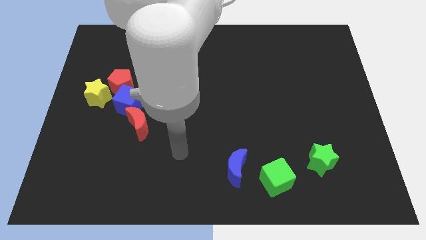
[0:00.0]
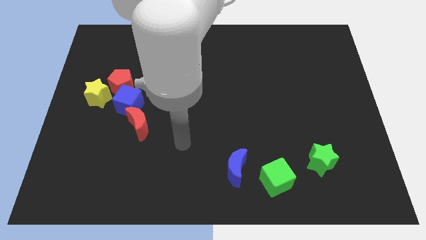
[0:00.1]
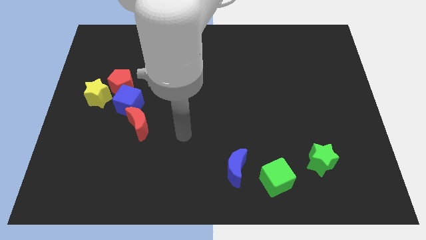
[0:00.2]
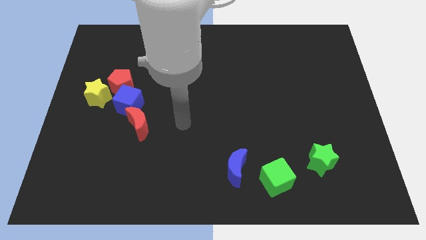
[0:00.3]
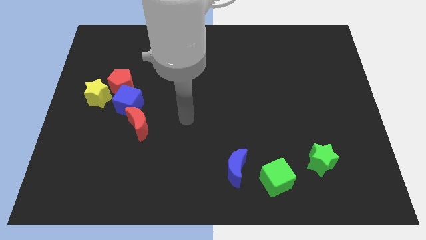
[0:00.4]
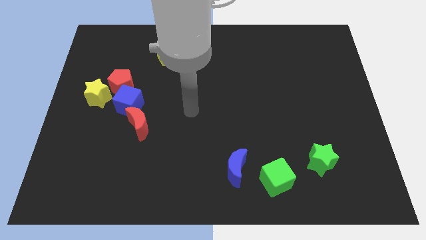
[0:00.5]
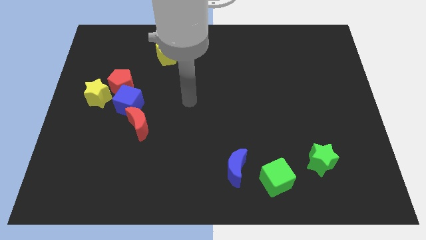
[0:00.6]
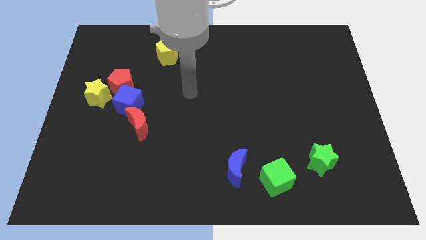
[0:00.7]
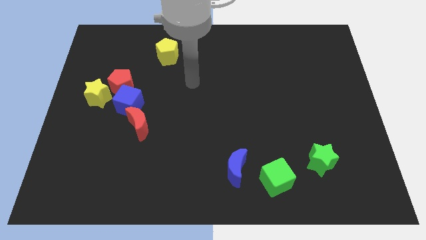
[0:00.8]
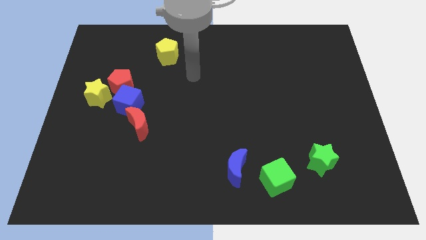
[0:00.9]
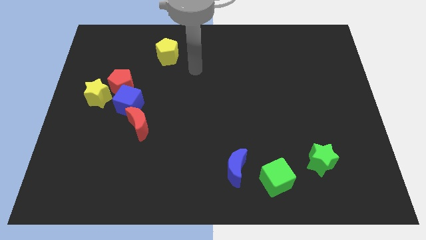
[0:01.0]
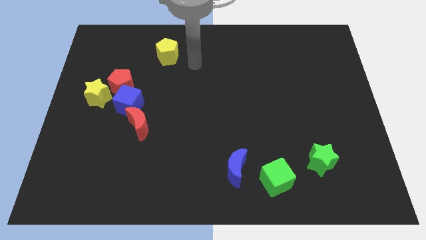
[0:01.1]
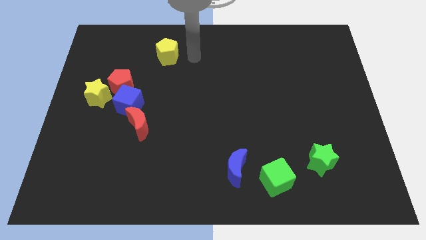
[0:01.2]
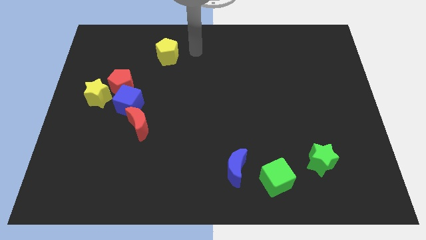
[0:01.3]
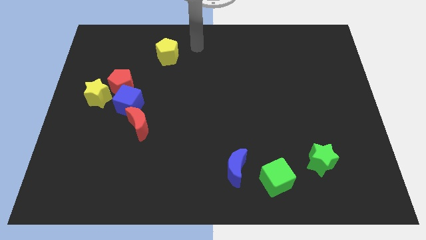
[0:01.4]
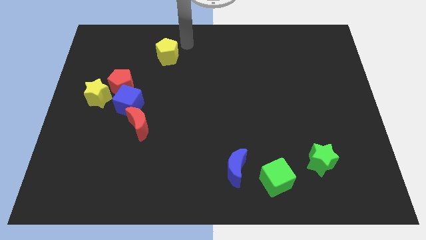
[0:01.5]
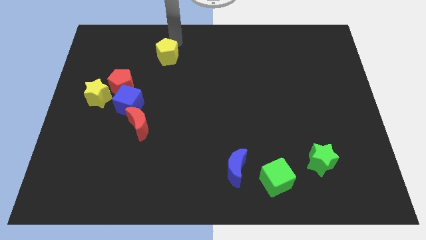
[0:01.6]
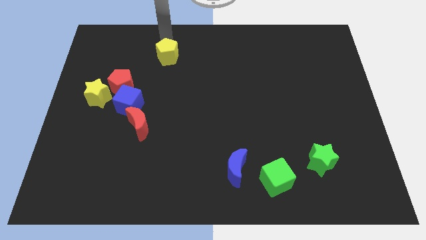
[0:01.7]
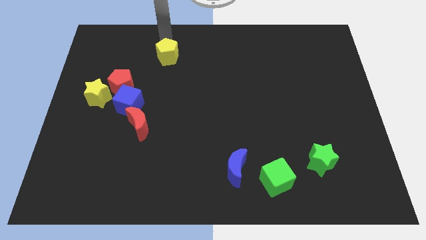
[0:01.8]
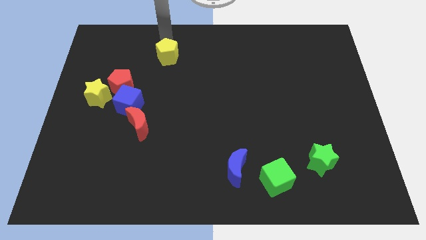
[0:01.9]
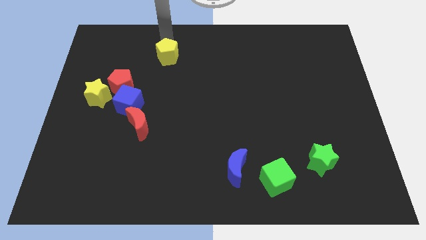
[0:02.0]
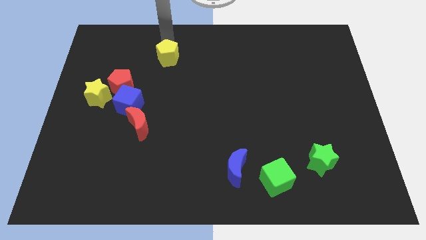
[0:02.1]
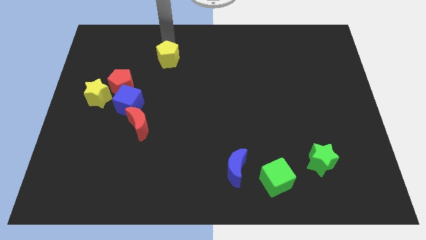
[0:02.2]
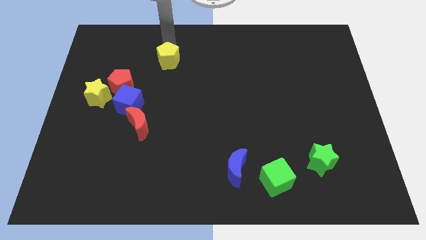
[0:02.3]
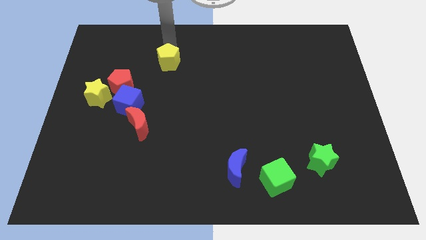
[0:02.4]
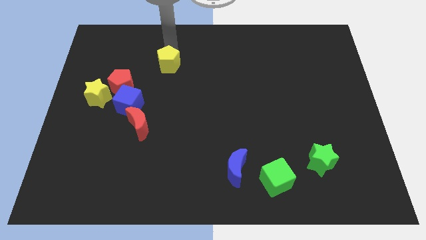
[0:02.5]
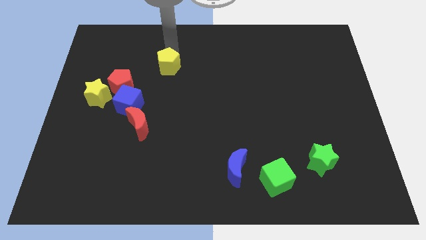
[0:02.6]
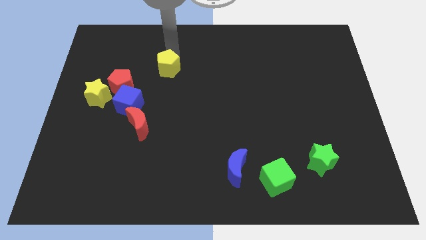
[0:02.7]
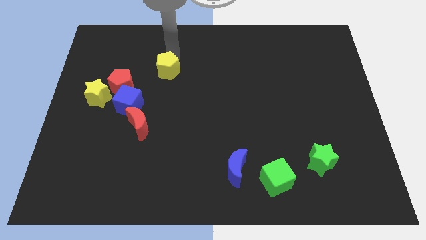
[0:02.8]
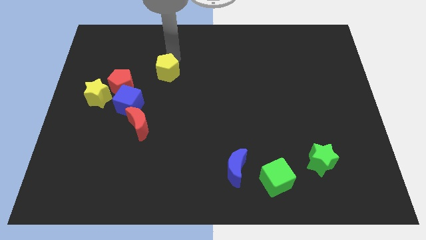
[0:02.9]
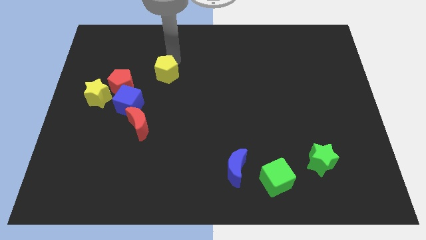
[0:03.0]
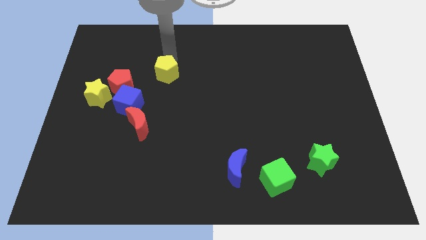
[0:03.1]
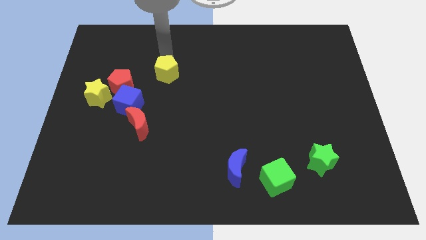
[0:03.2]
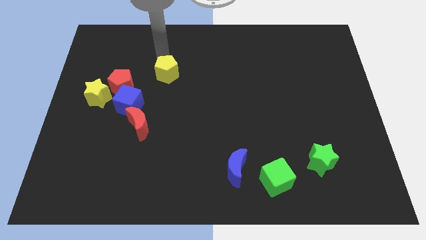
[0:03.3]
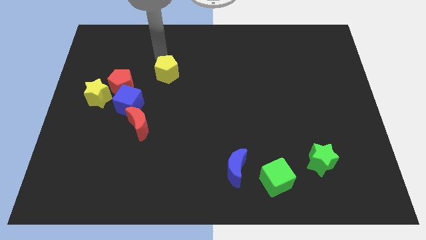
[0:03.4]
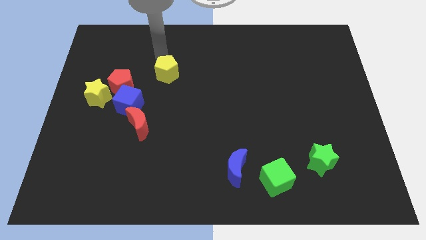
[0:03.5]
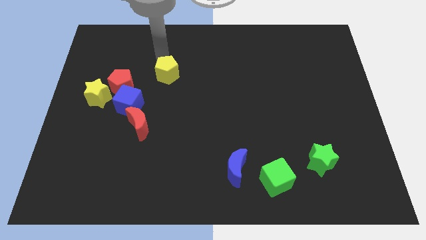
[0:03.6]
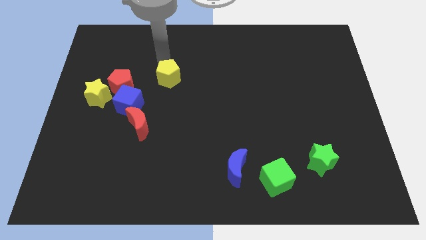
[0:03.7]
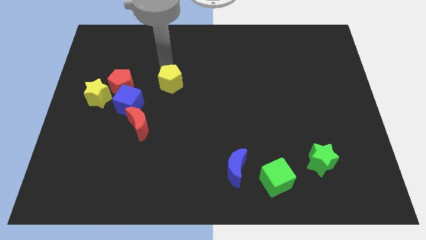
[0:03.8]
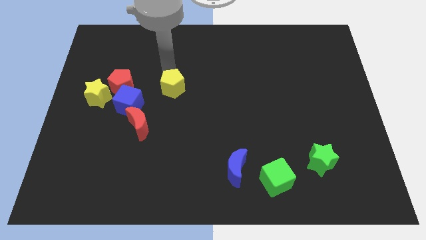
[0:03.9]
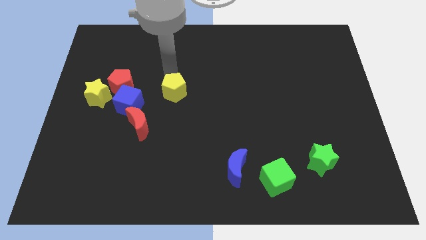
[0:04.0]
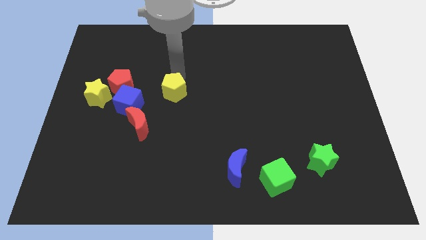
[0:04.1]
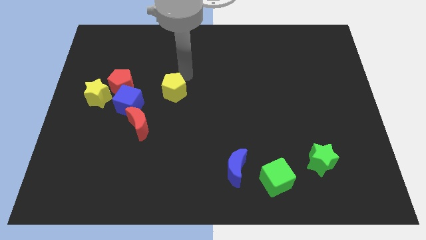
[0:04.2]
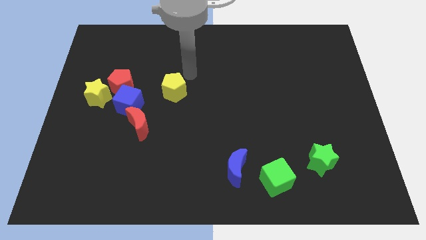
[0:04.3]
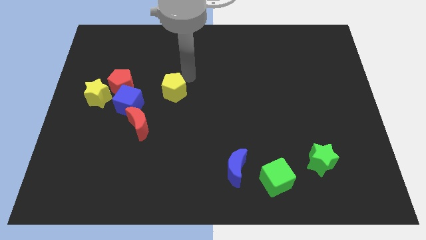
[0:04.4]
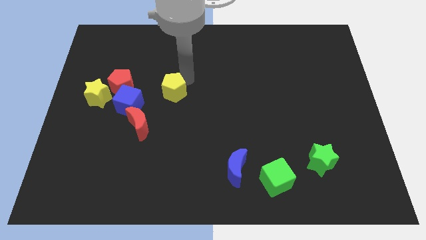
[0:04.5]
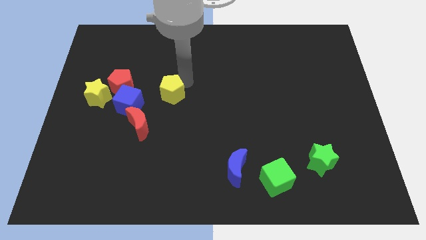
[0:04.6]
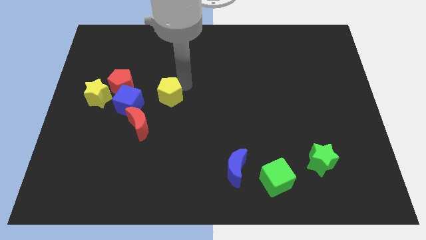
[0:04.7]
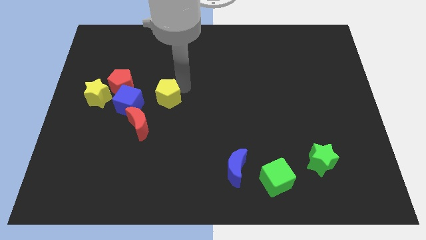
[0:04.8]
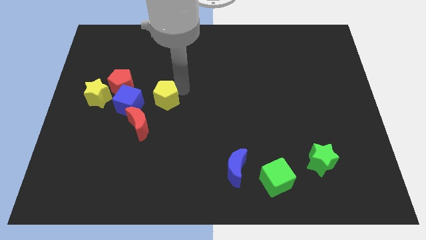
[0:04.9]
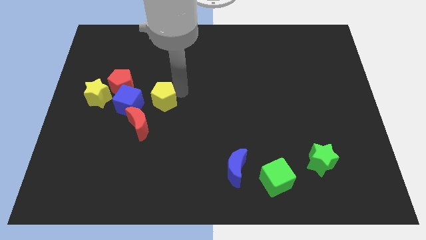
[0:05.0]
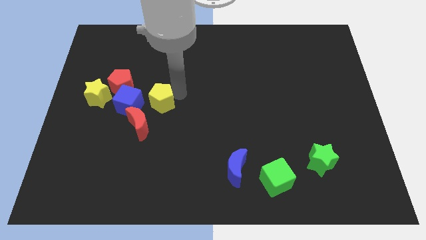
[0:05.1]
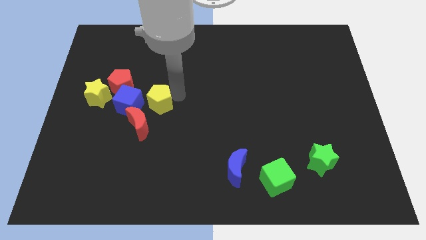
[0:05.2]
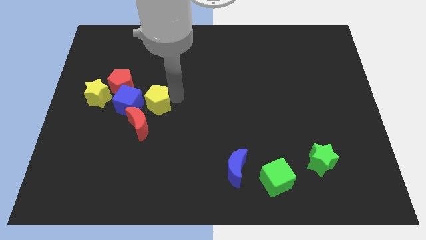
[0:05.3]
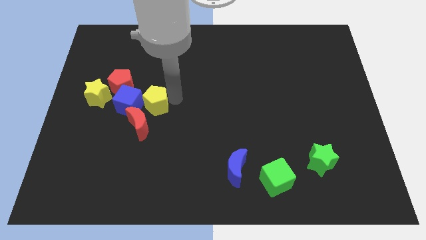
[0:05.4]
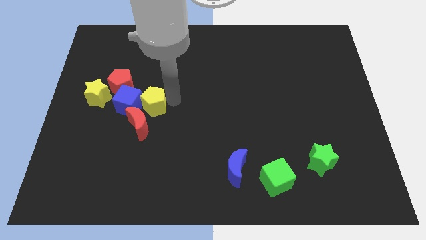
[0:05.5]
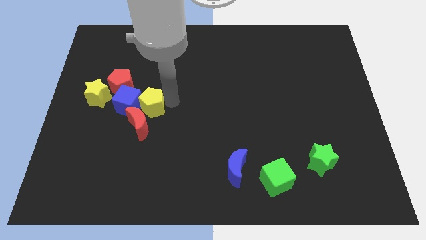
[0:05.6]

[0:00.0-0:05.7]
move the yellow pentagon close to the red moon

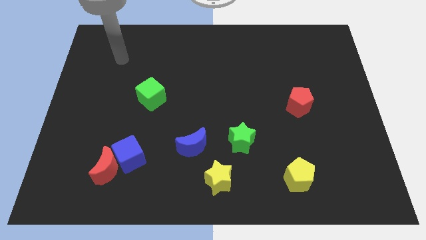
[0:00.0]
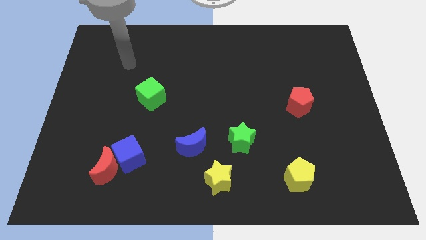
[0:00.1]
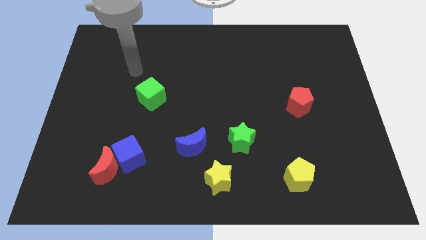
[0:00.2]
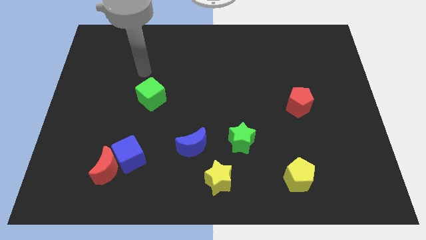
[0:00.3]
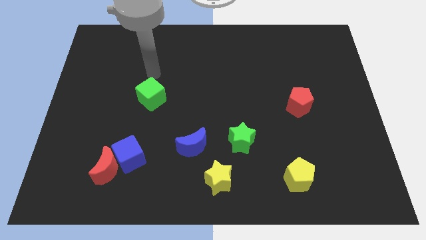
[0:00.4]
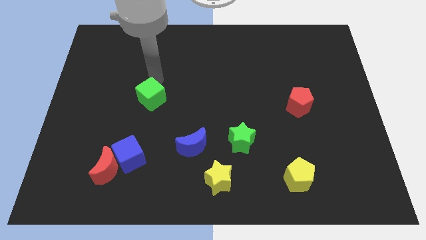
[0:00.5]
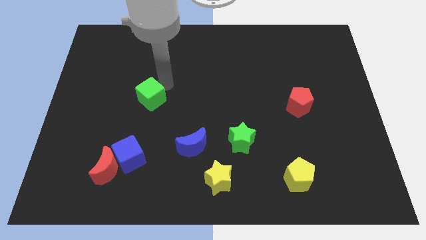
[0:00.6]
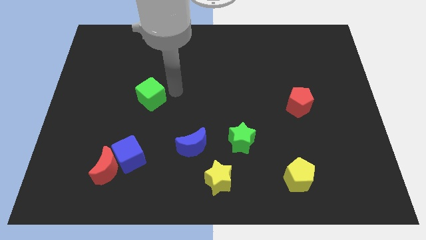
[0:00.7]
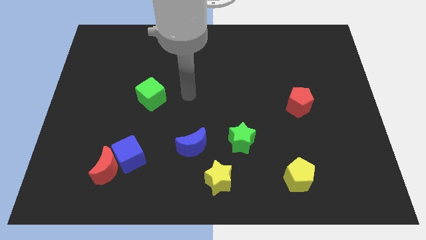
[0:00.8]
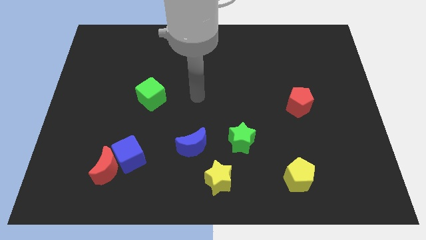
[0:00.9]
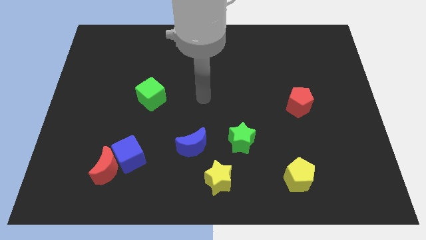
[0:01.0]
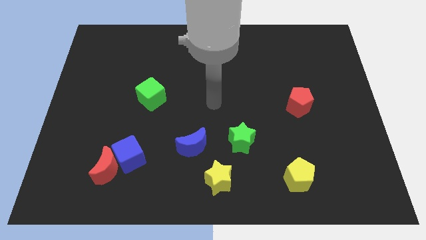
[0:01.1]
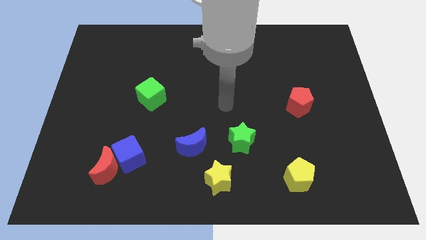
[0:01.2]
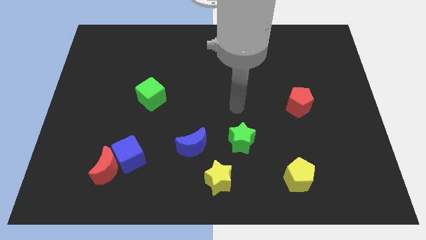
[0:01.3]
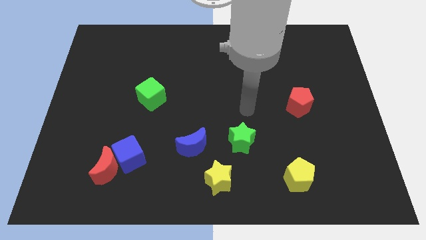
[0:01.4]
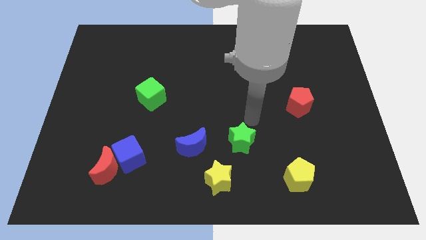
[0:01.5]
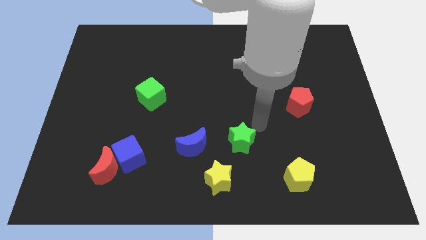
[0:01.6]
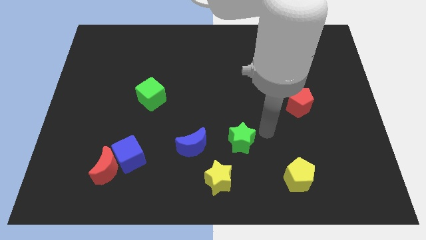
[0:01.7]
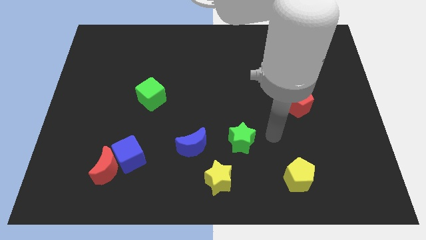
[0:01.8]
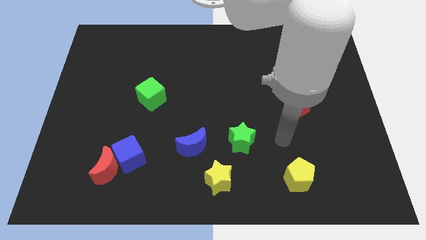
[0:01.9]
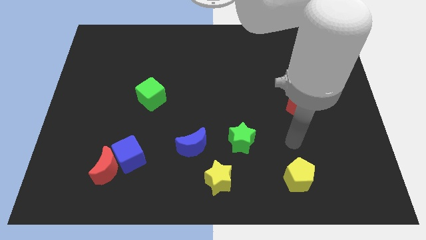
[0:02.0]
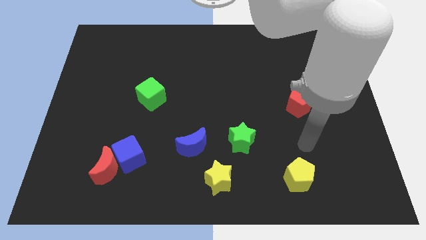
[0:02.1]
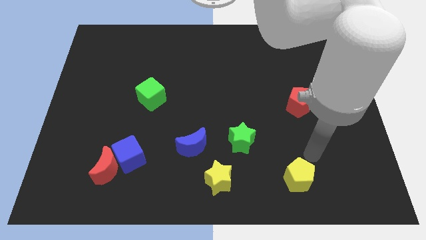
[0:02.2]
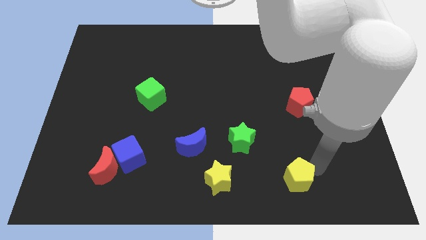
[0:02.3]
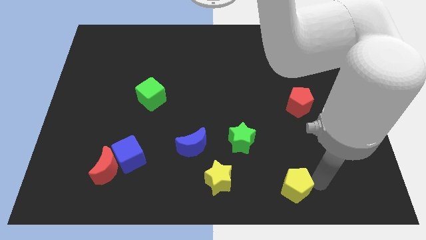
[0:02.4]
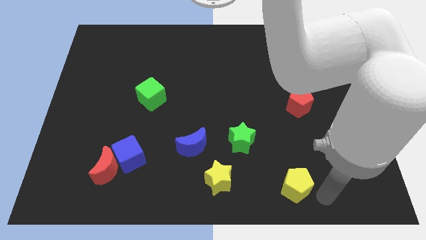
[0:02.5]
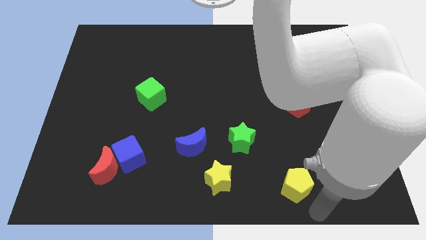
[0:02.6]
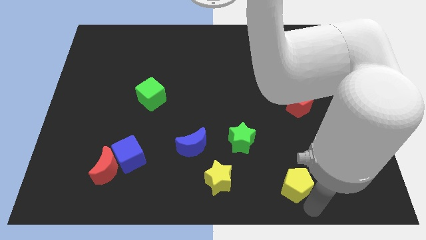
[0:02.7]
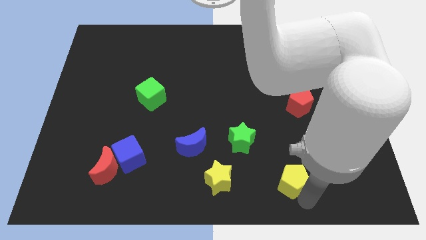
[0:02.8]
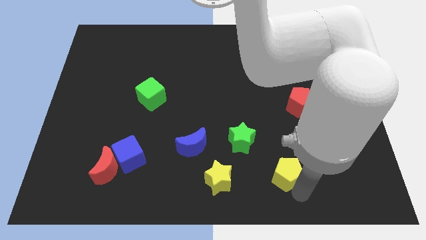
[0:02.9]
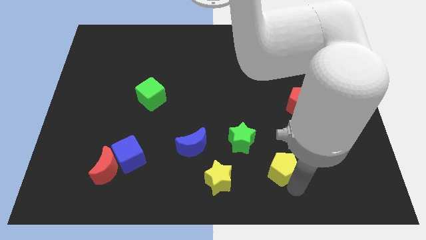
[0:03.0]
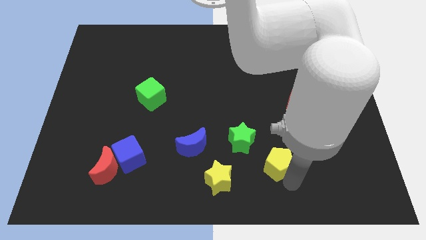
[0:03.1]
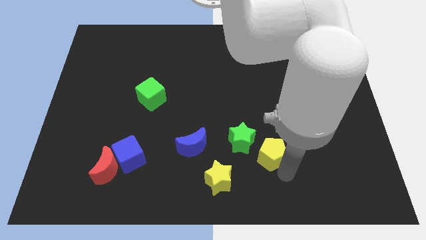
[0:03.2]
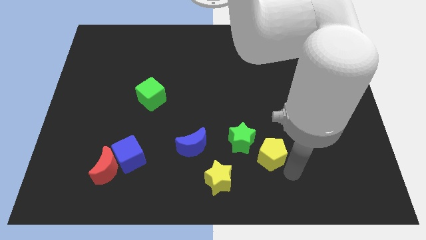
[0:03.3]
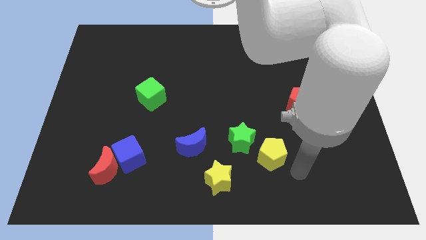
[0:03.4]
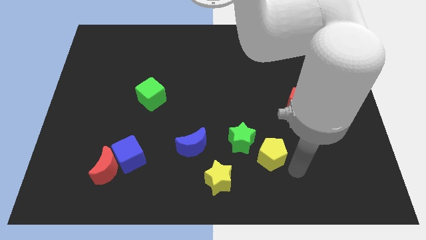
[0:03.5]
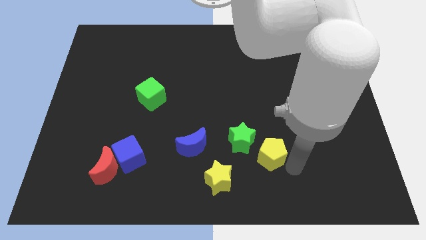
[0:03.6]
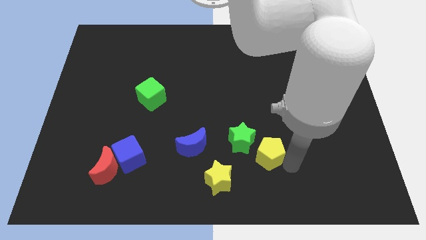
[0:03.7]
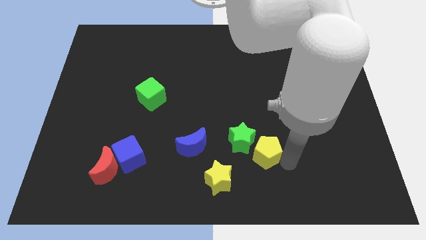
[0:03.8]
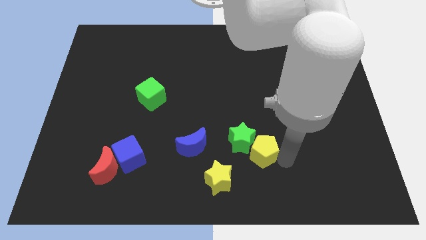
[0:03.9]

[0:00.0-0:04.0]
push the yellow pentagon close to the green star
